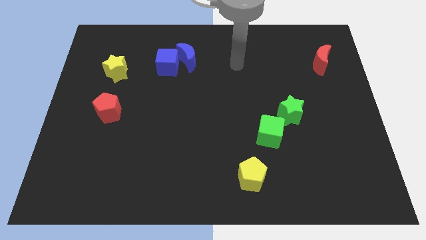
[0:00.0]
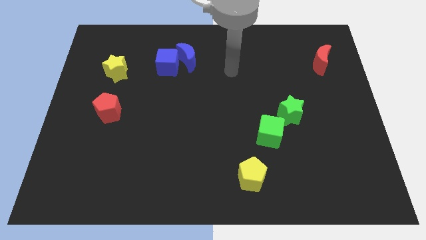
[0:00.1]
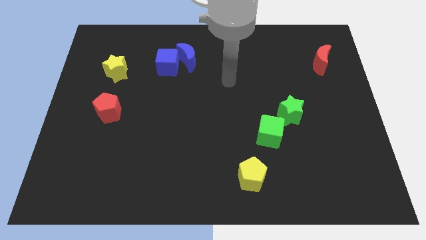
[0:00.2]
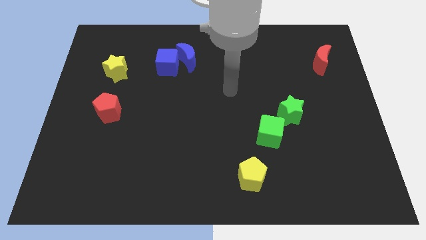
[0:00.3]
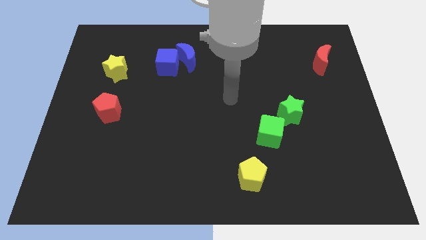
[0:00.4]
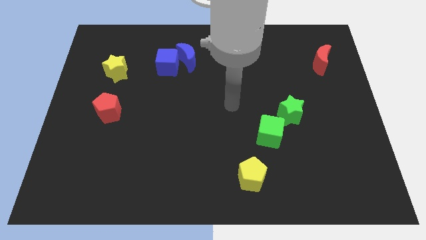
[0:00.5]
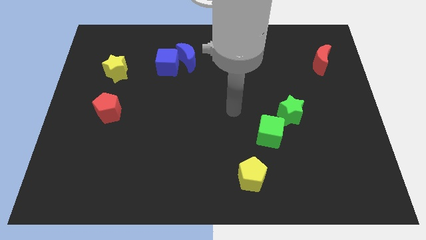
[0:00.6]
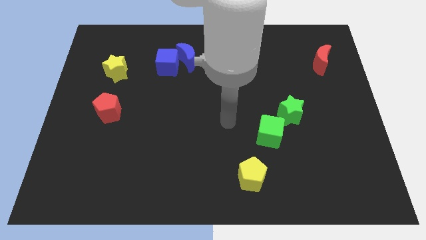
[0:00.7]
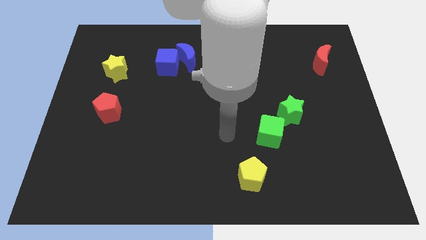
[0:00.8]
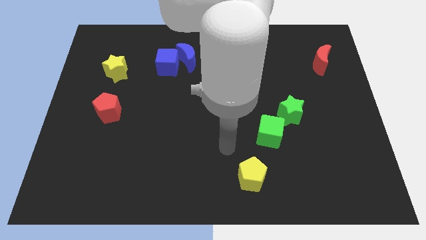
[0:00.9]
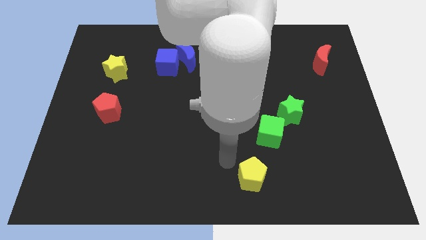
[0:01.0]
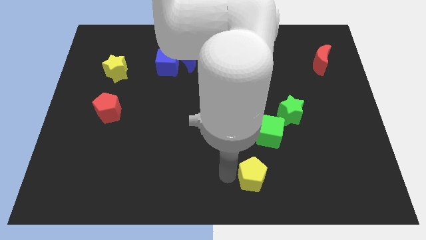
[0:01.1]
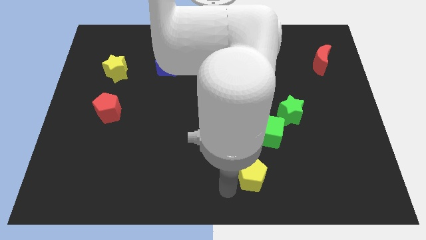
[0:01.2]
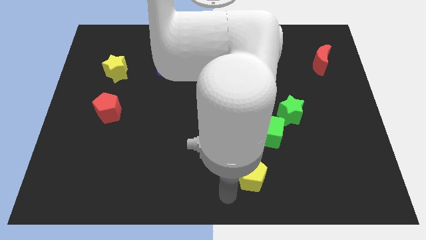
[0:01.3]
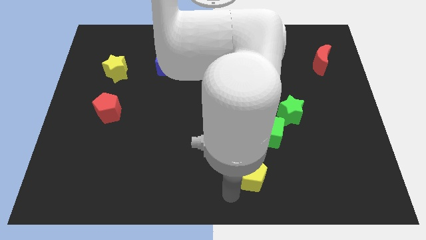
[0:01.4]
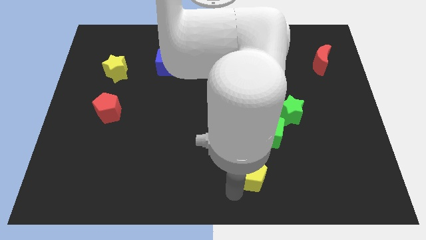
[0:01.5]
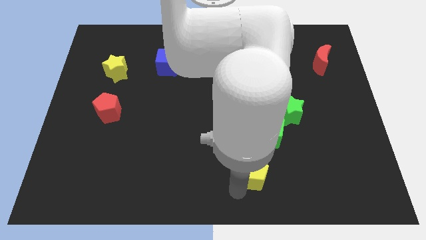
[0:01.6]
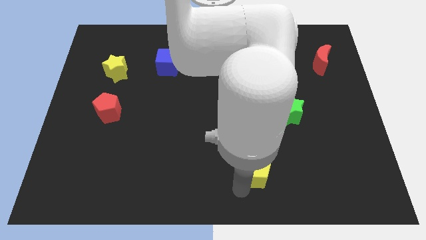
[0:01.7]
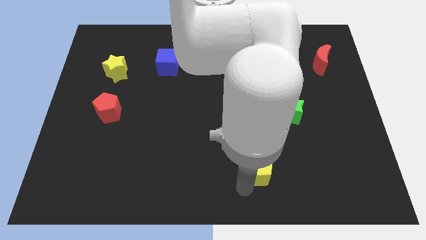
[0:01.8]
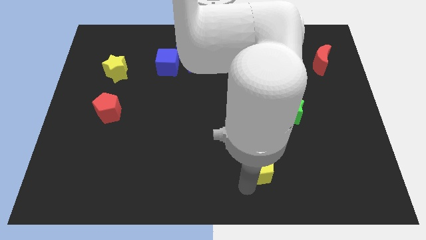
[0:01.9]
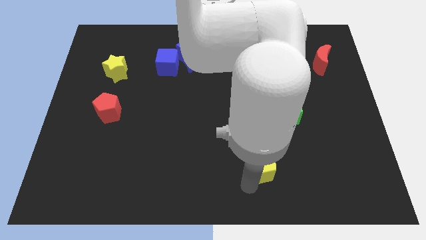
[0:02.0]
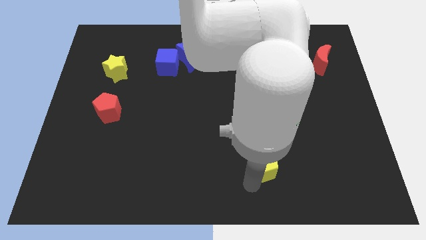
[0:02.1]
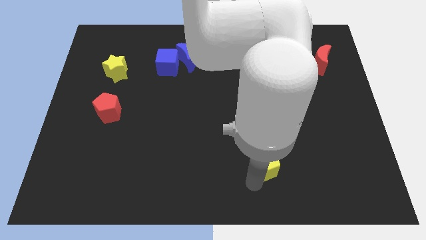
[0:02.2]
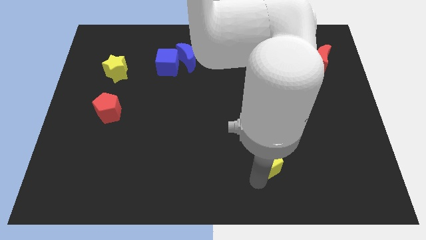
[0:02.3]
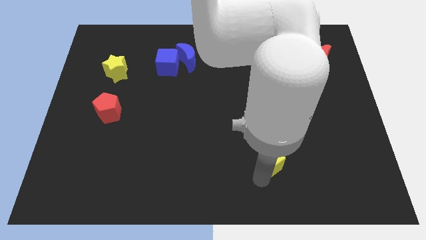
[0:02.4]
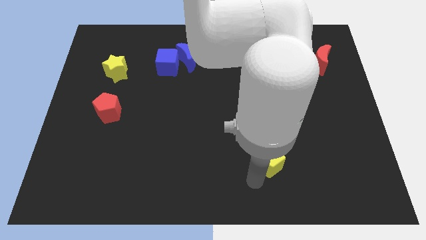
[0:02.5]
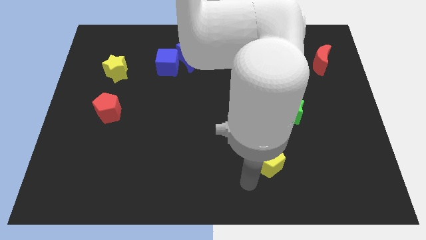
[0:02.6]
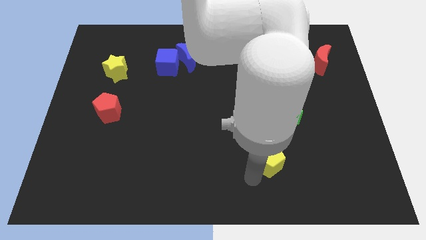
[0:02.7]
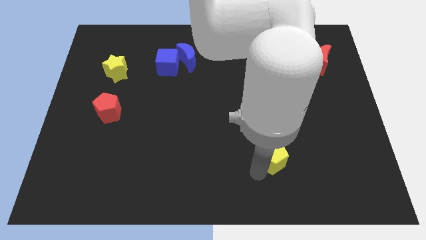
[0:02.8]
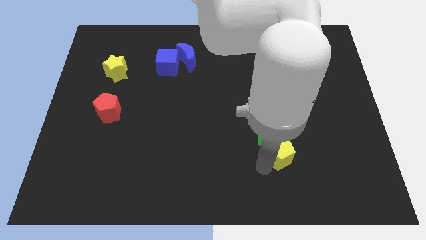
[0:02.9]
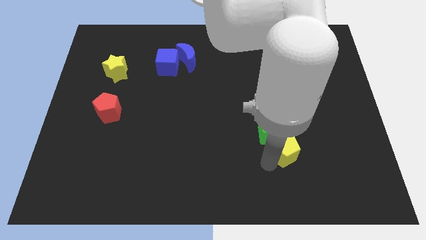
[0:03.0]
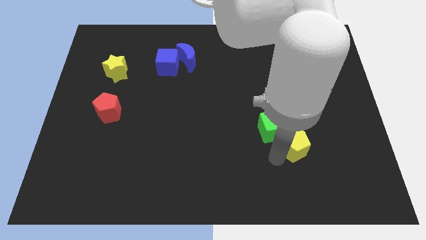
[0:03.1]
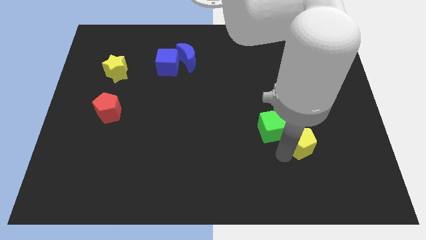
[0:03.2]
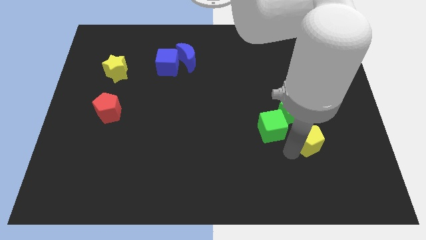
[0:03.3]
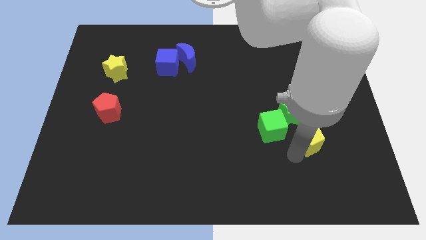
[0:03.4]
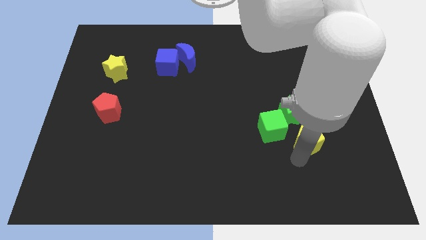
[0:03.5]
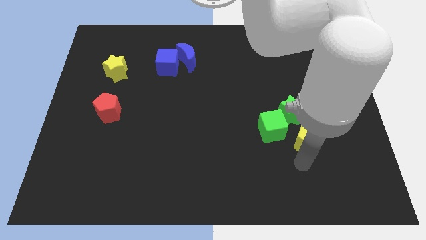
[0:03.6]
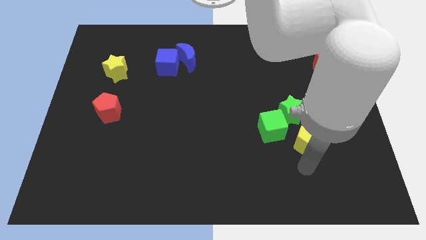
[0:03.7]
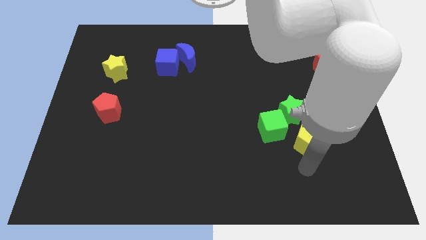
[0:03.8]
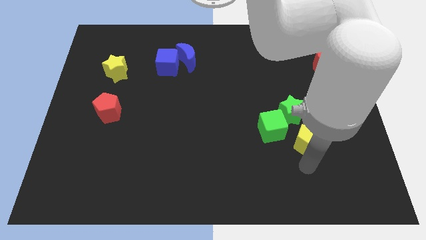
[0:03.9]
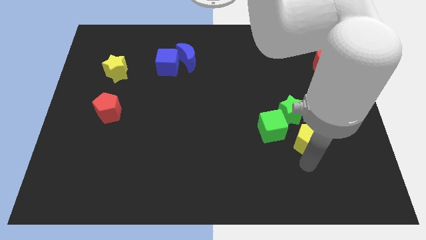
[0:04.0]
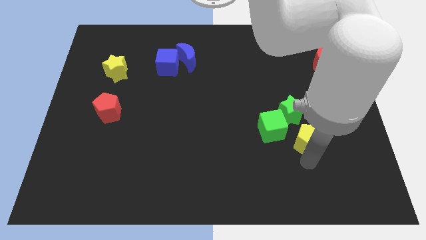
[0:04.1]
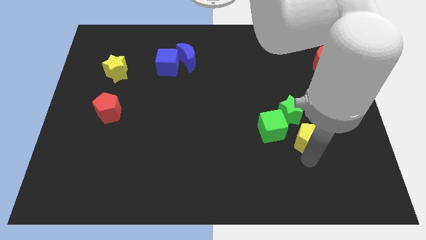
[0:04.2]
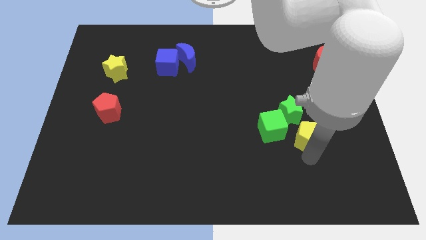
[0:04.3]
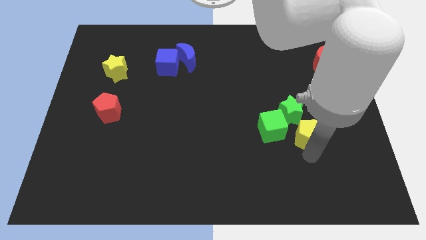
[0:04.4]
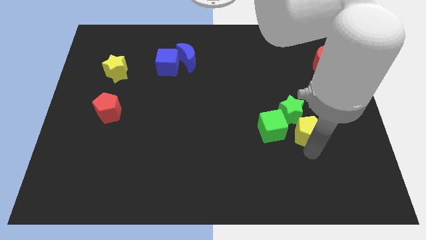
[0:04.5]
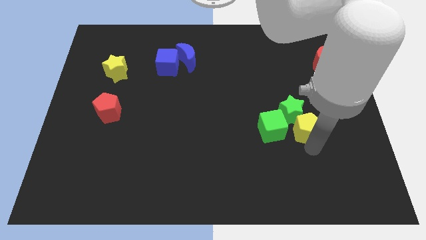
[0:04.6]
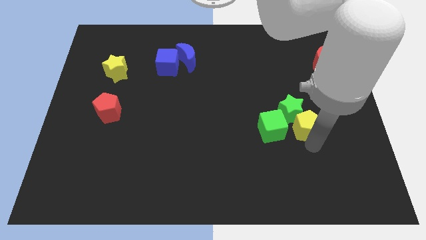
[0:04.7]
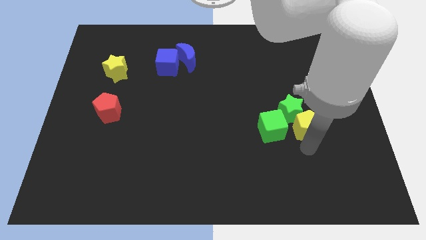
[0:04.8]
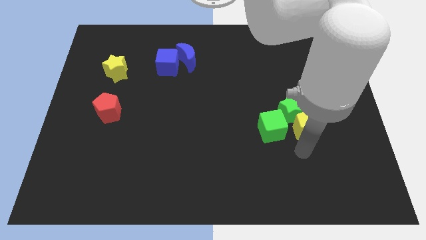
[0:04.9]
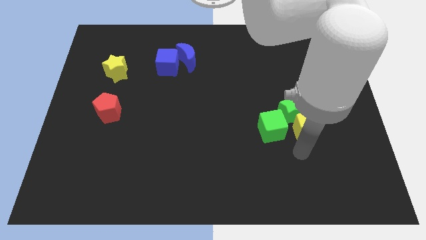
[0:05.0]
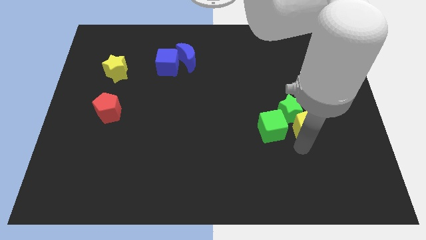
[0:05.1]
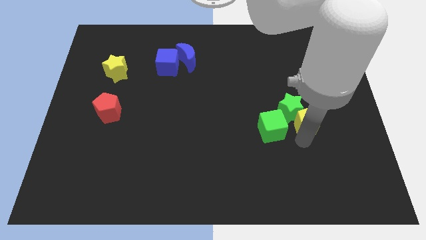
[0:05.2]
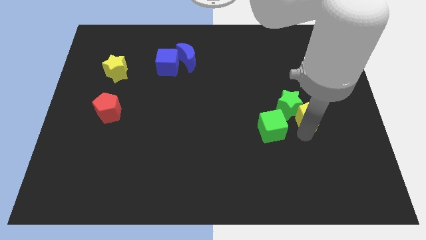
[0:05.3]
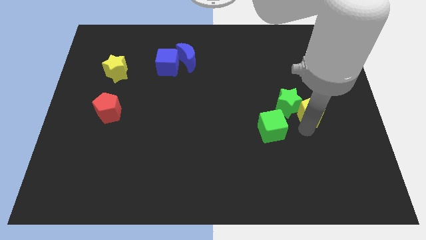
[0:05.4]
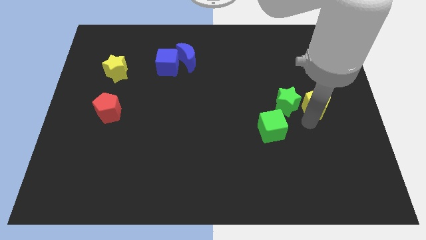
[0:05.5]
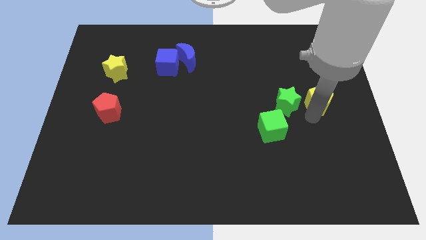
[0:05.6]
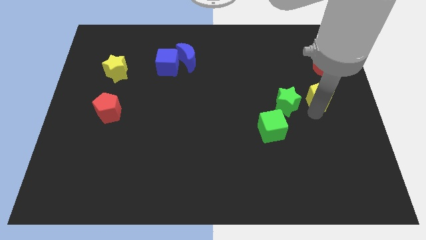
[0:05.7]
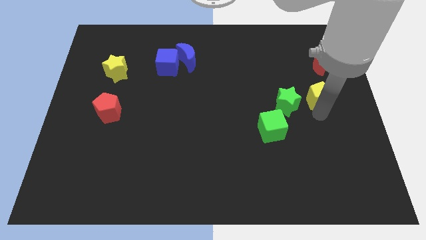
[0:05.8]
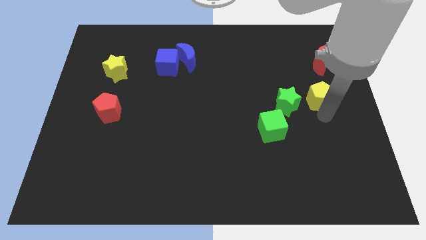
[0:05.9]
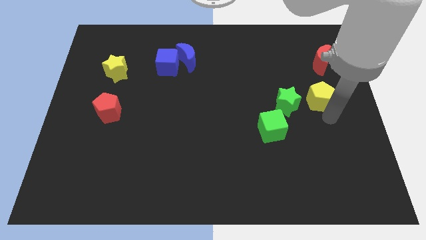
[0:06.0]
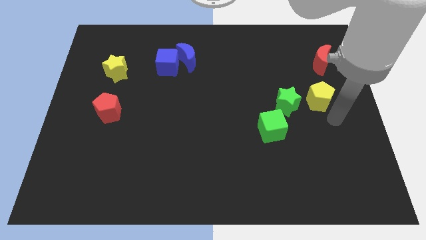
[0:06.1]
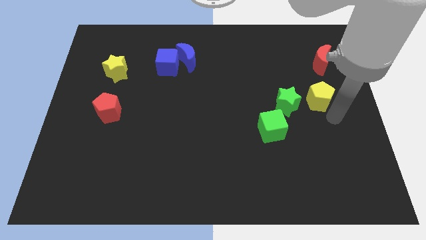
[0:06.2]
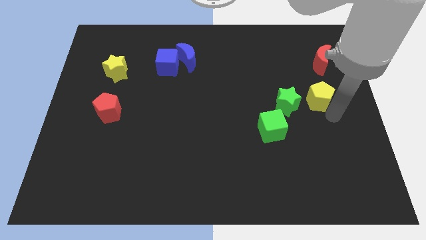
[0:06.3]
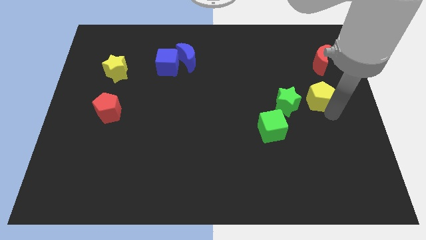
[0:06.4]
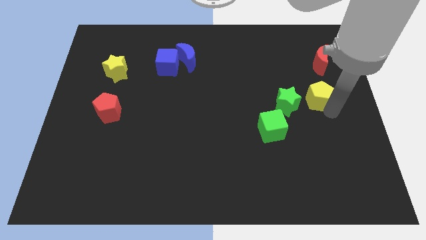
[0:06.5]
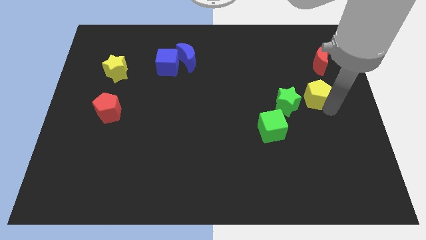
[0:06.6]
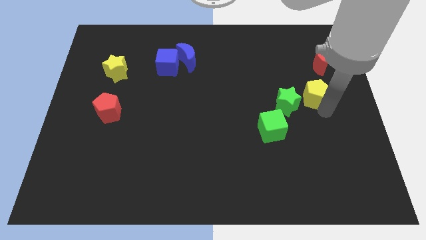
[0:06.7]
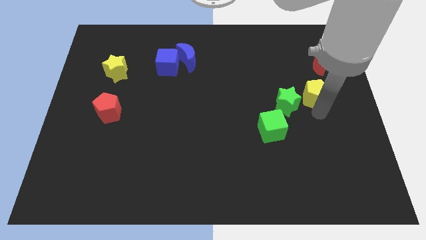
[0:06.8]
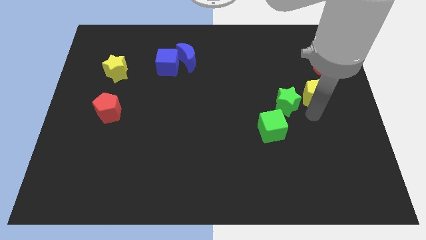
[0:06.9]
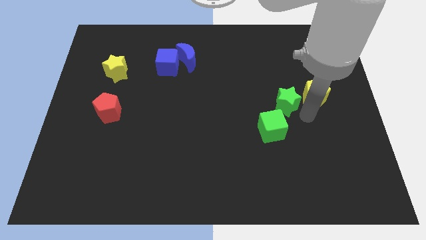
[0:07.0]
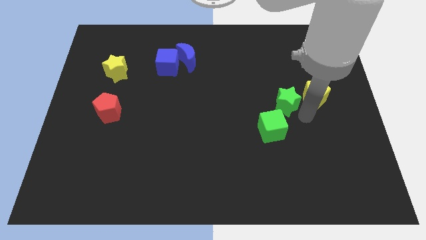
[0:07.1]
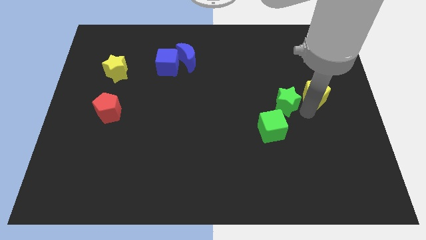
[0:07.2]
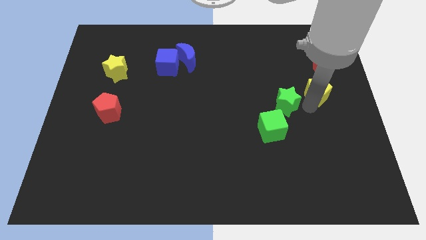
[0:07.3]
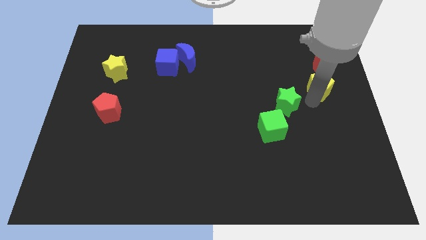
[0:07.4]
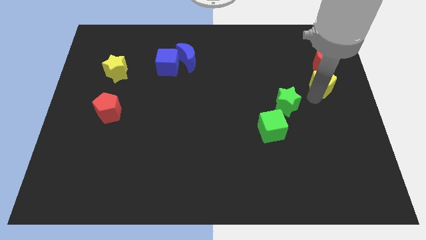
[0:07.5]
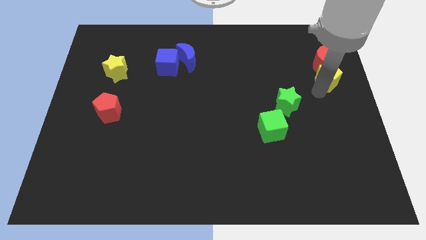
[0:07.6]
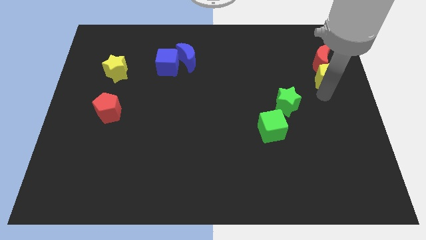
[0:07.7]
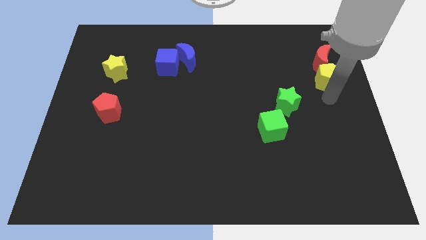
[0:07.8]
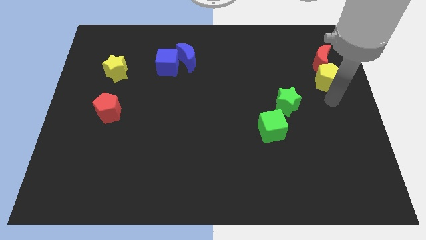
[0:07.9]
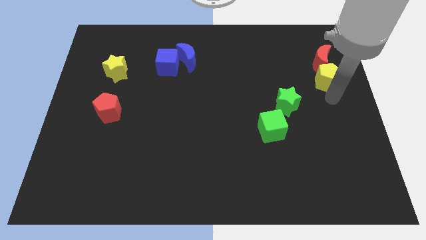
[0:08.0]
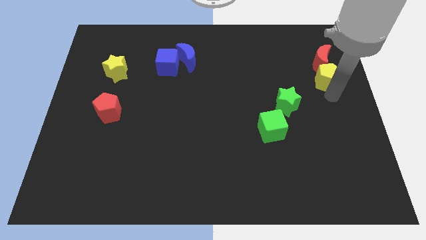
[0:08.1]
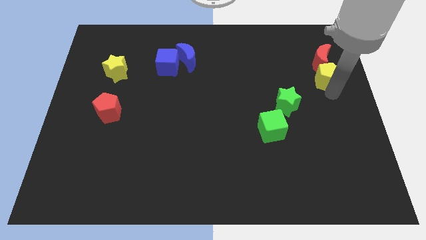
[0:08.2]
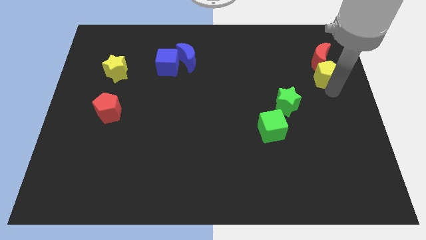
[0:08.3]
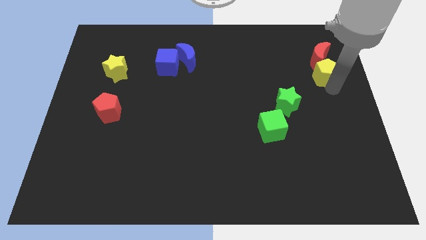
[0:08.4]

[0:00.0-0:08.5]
move the yellow pentagon next to the red moon
